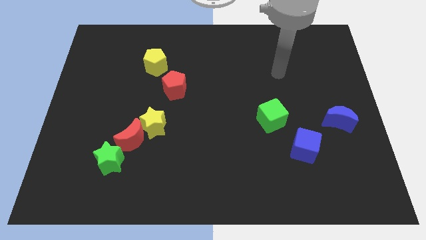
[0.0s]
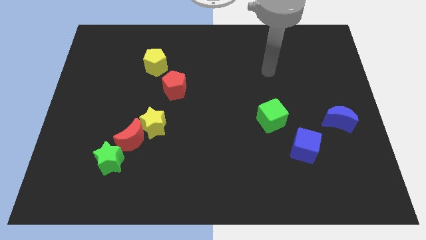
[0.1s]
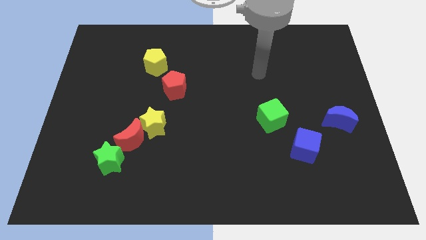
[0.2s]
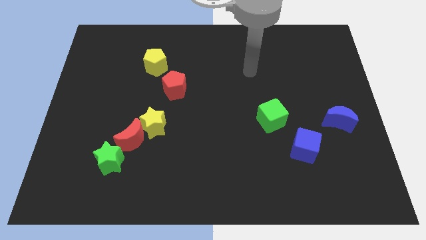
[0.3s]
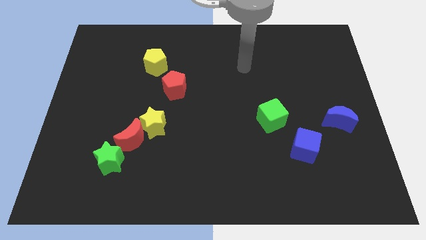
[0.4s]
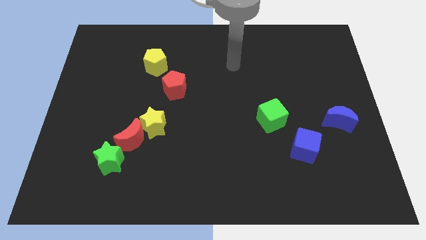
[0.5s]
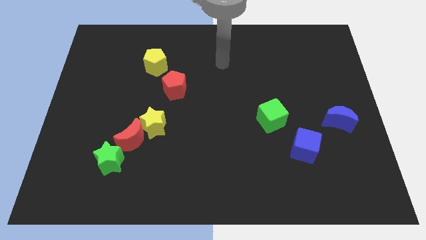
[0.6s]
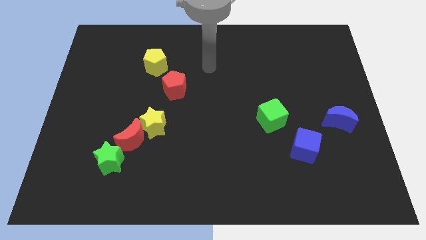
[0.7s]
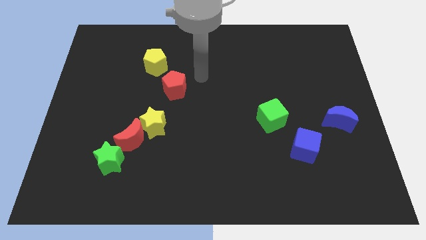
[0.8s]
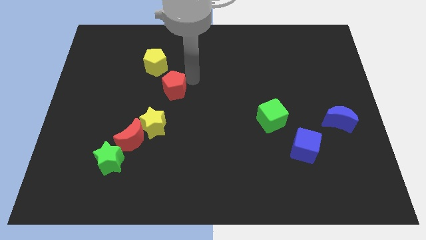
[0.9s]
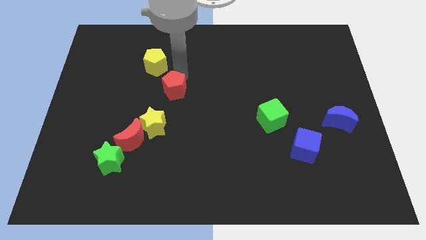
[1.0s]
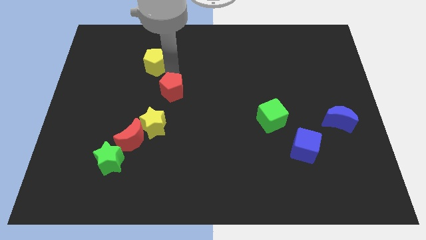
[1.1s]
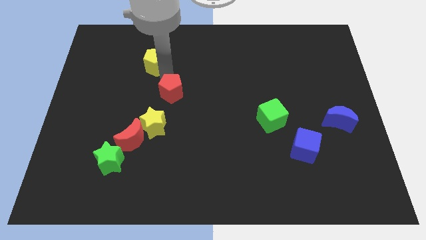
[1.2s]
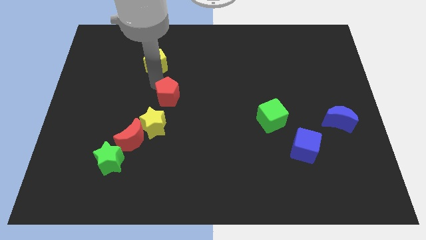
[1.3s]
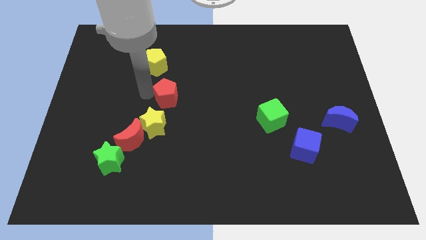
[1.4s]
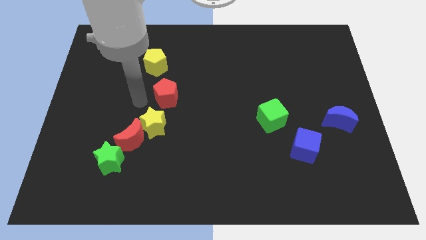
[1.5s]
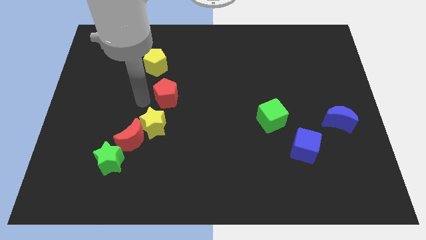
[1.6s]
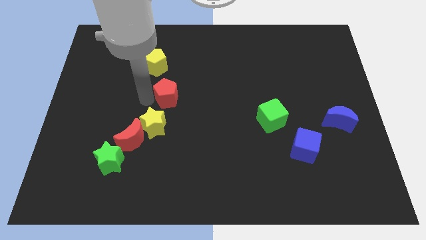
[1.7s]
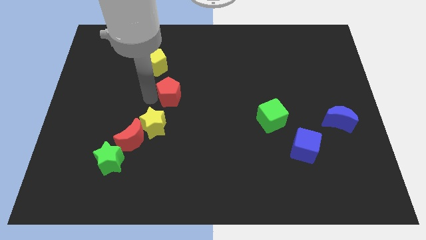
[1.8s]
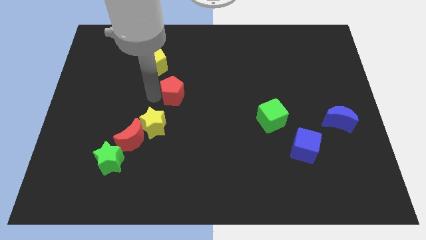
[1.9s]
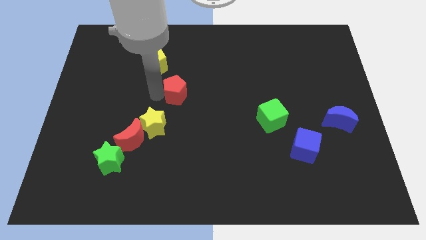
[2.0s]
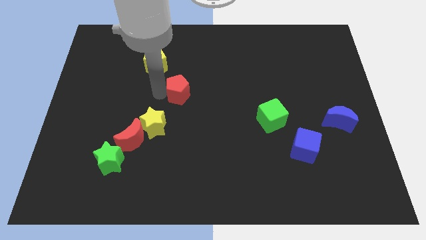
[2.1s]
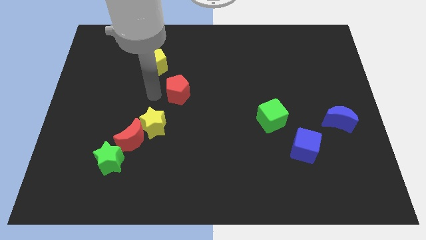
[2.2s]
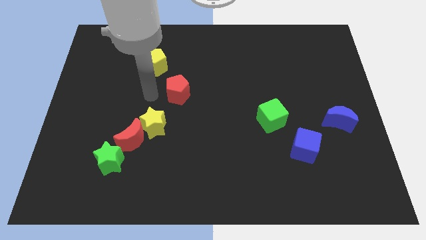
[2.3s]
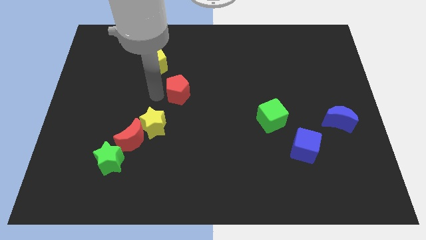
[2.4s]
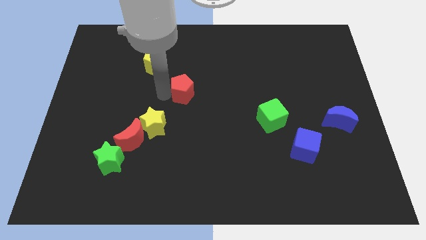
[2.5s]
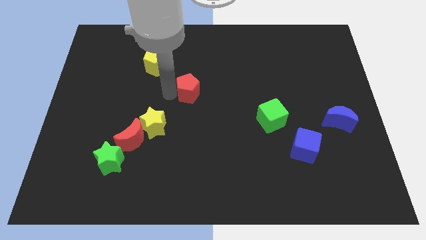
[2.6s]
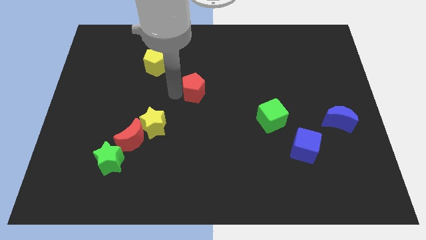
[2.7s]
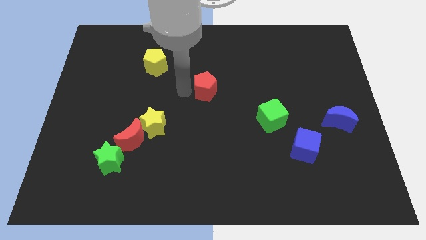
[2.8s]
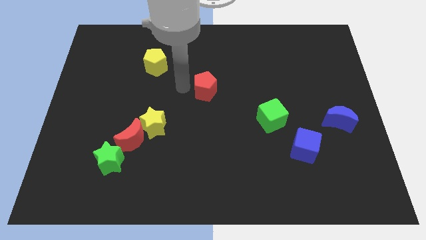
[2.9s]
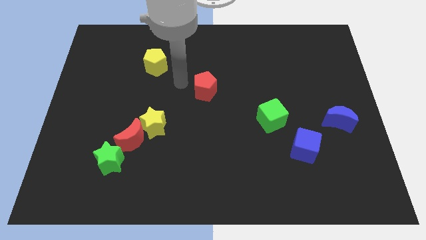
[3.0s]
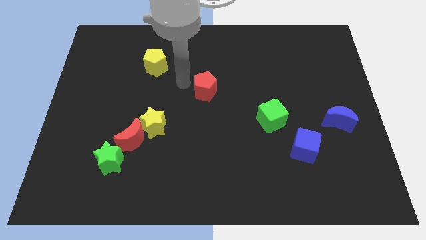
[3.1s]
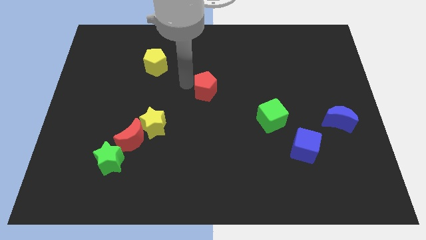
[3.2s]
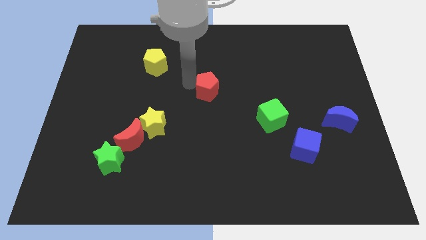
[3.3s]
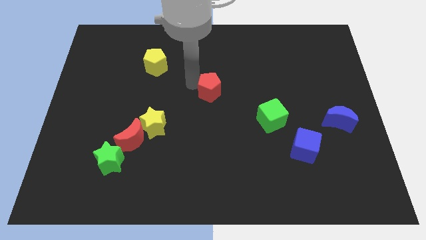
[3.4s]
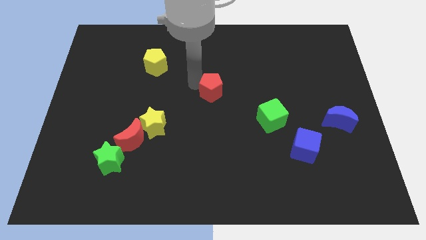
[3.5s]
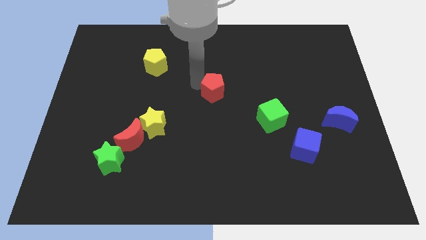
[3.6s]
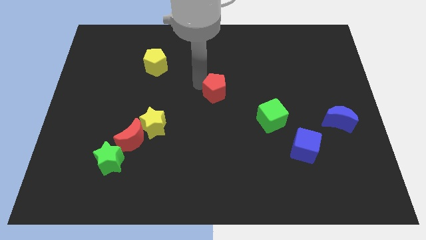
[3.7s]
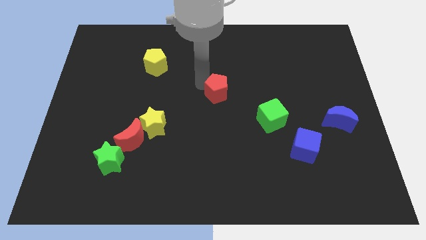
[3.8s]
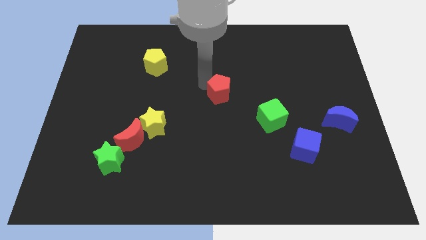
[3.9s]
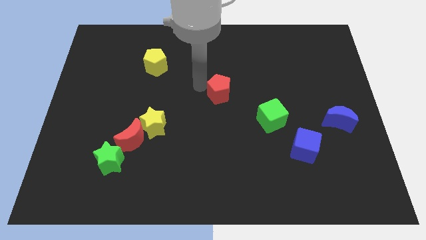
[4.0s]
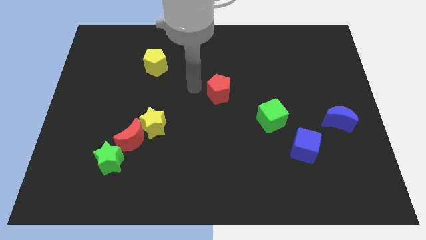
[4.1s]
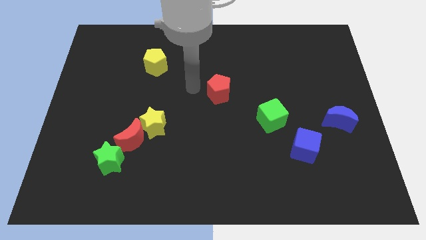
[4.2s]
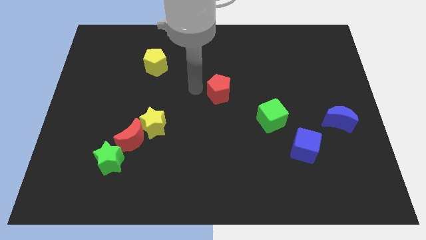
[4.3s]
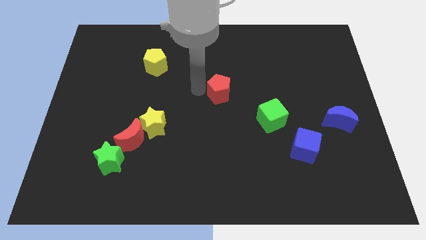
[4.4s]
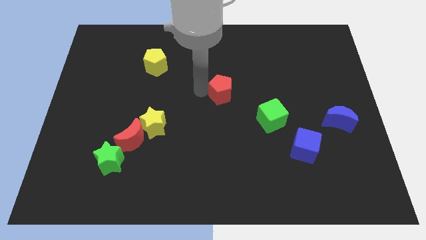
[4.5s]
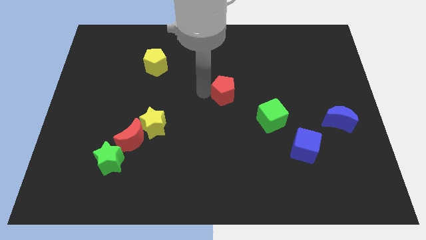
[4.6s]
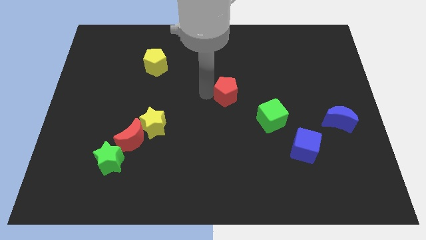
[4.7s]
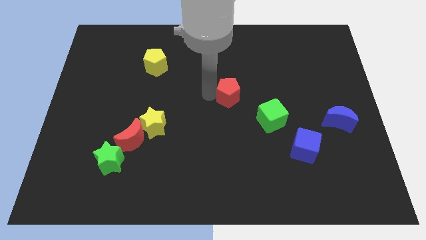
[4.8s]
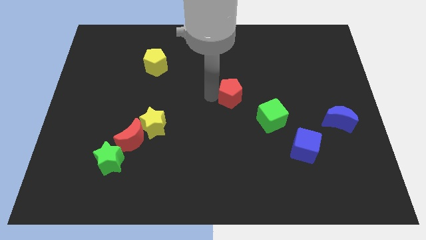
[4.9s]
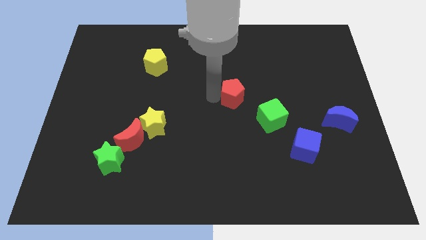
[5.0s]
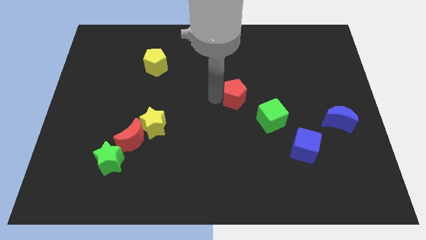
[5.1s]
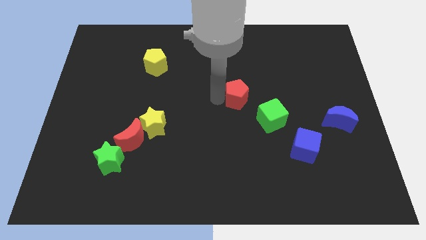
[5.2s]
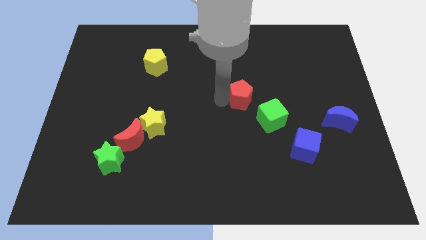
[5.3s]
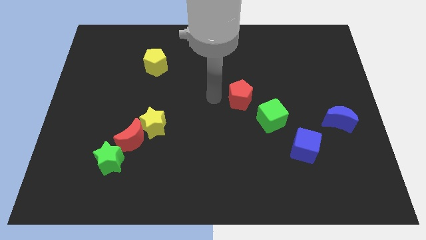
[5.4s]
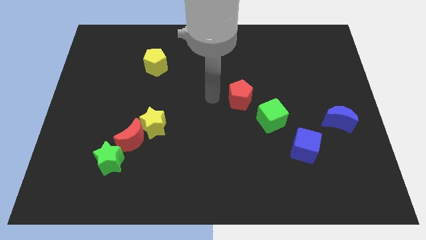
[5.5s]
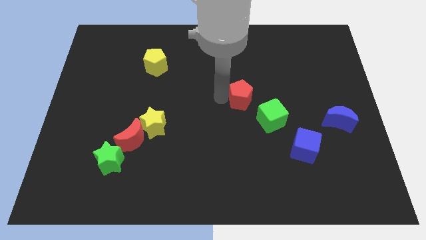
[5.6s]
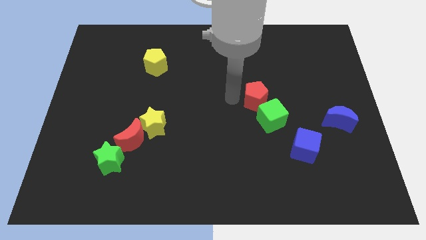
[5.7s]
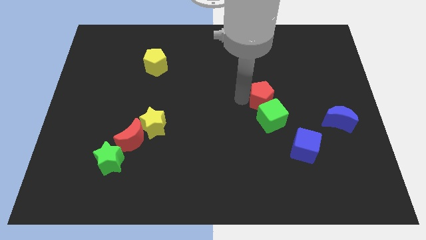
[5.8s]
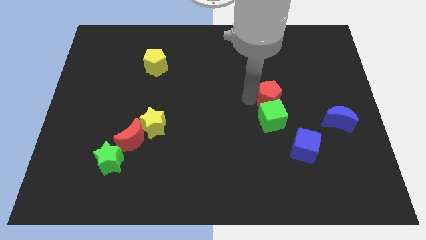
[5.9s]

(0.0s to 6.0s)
move the red pentagon diagonally up and to the right of the green cube

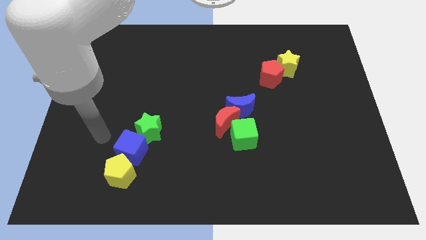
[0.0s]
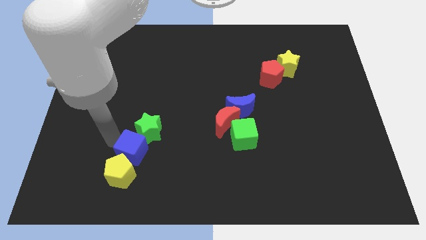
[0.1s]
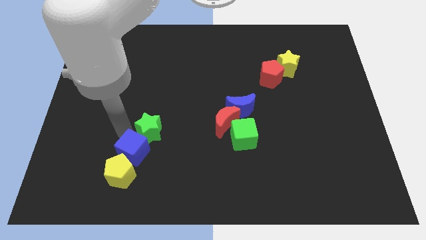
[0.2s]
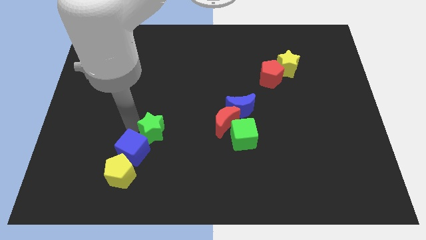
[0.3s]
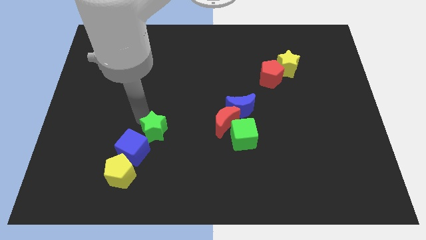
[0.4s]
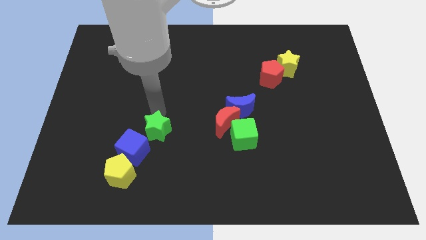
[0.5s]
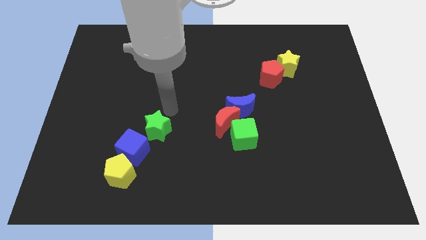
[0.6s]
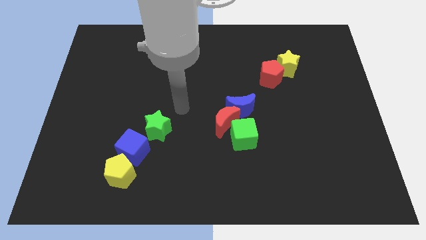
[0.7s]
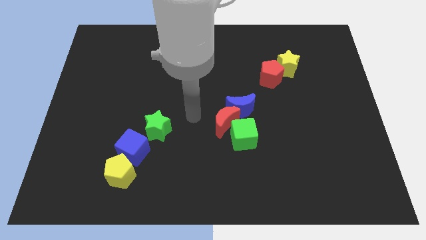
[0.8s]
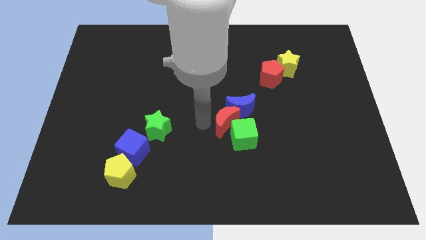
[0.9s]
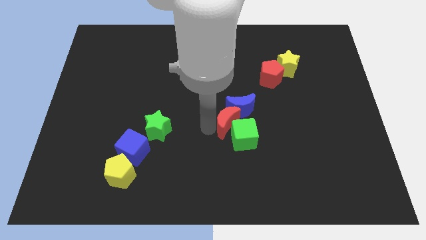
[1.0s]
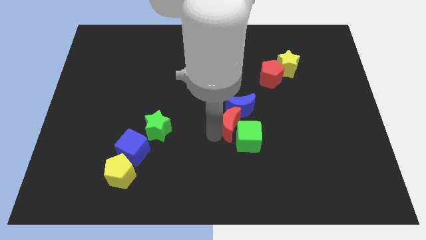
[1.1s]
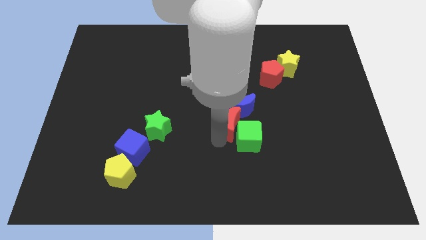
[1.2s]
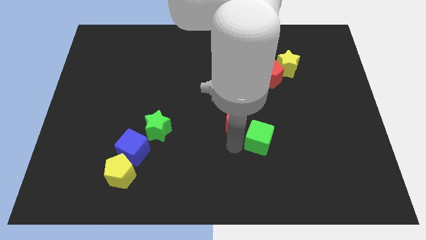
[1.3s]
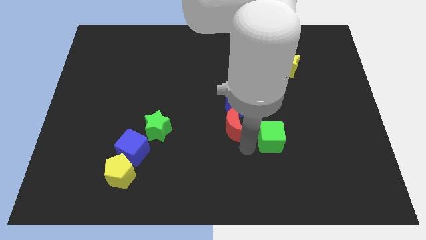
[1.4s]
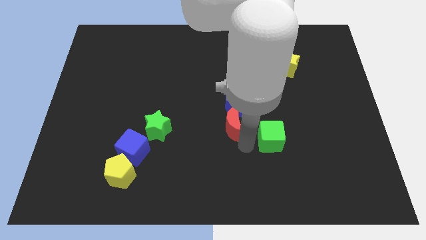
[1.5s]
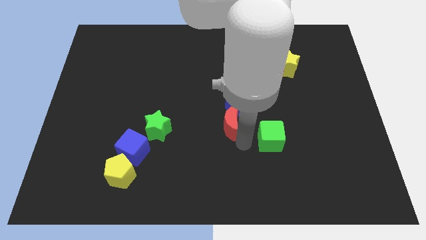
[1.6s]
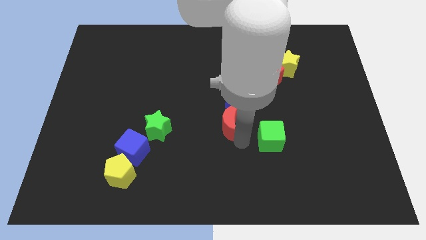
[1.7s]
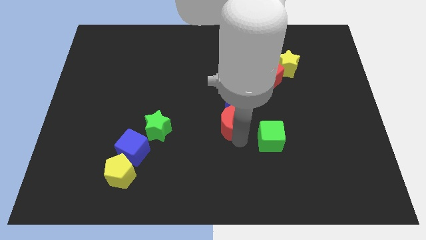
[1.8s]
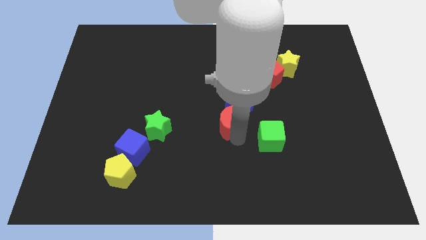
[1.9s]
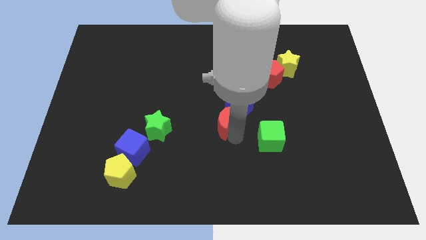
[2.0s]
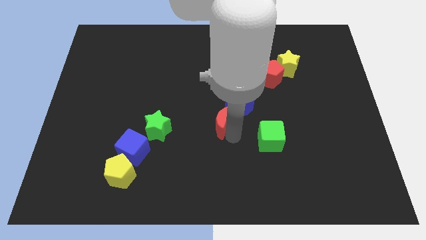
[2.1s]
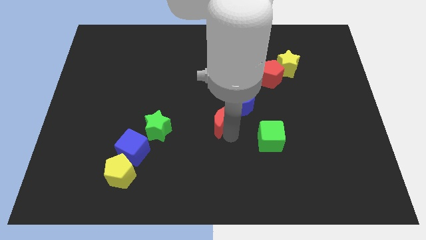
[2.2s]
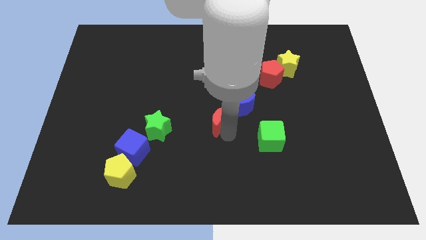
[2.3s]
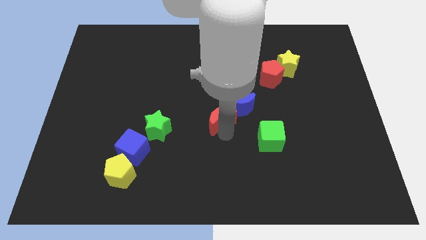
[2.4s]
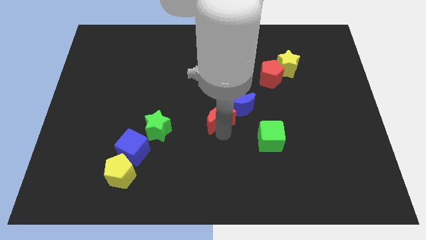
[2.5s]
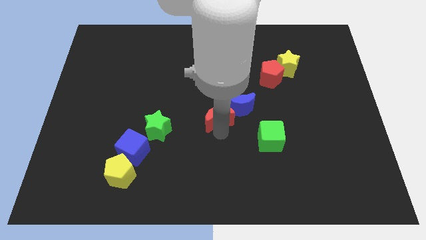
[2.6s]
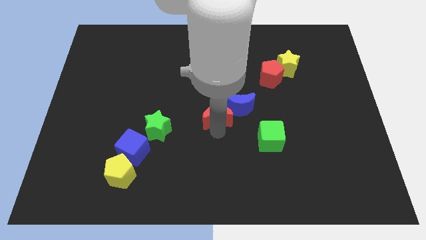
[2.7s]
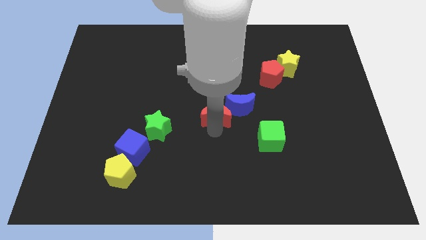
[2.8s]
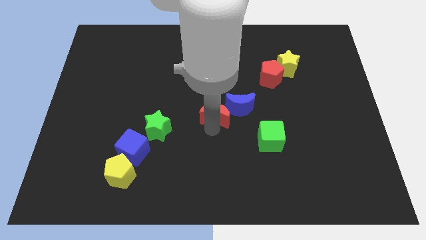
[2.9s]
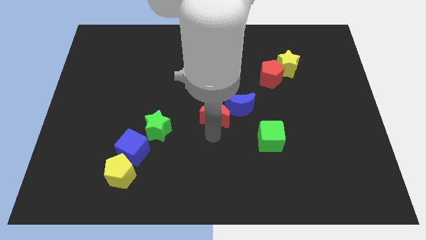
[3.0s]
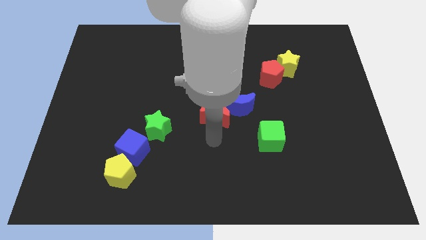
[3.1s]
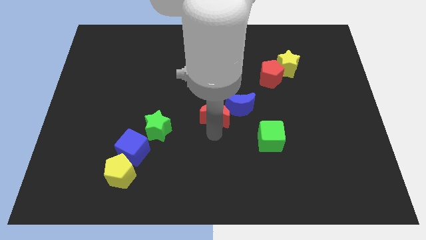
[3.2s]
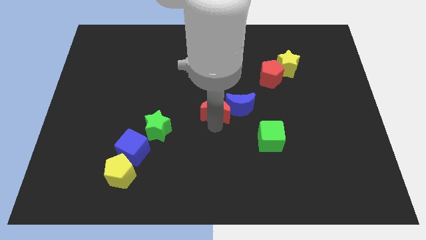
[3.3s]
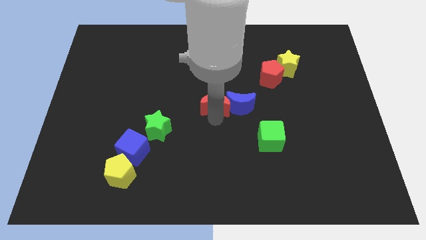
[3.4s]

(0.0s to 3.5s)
put the red moon diagonally up and to the left of the blue moon
